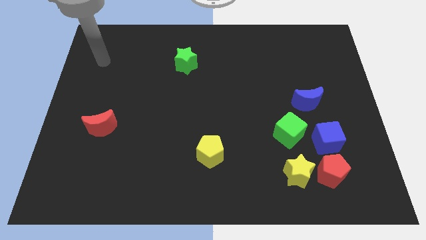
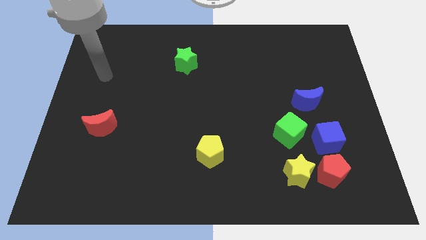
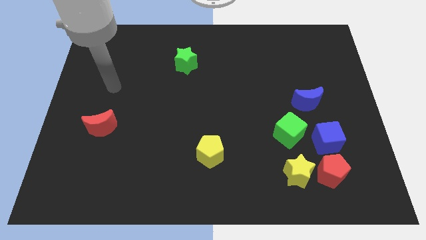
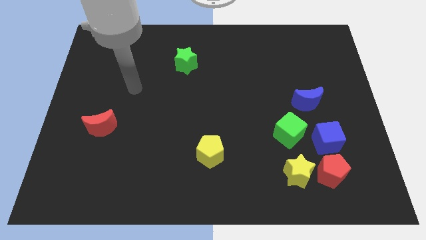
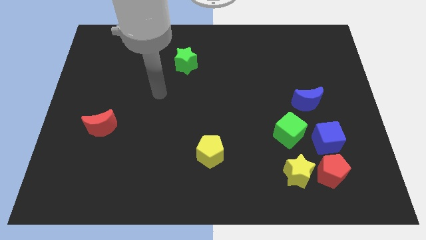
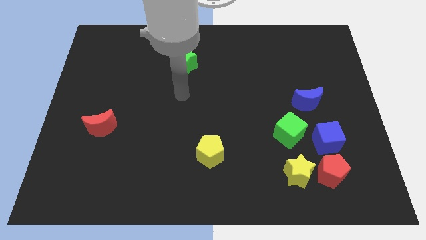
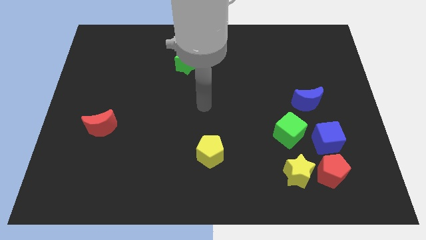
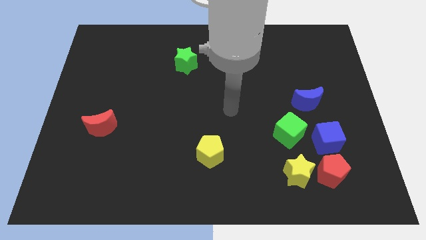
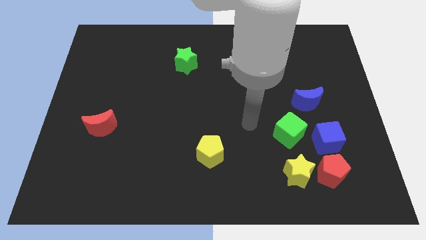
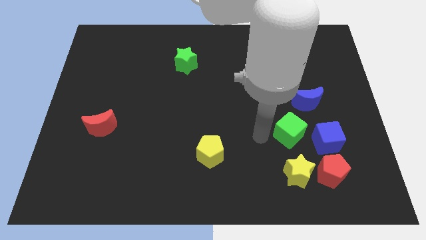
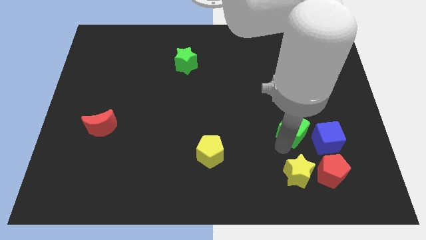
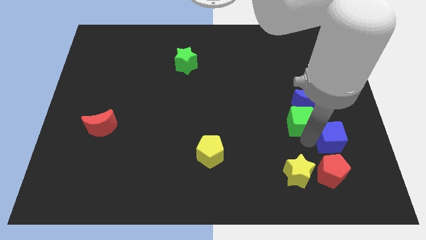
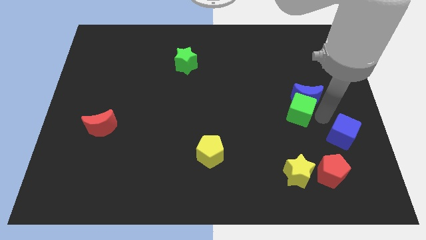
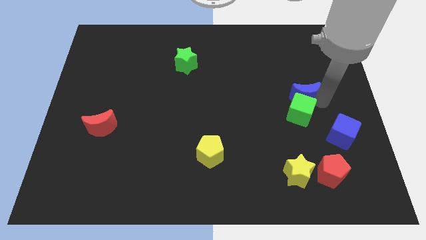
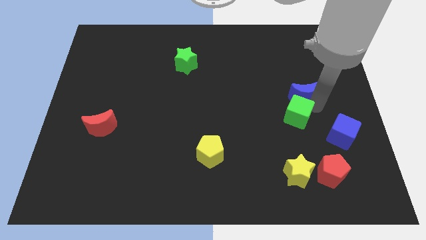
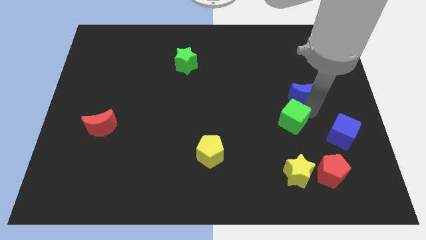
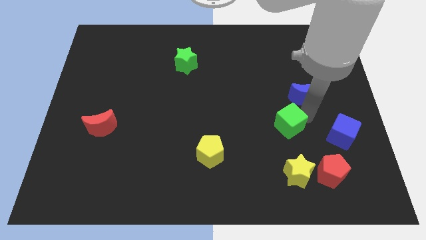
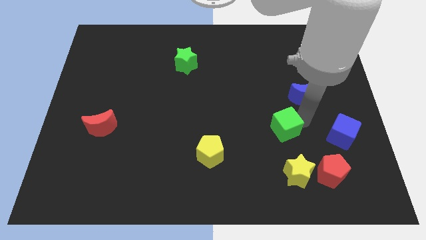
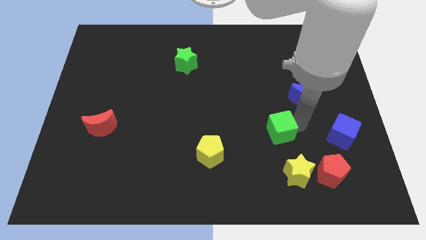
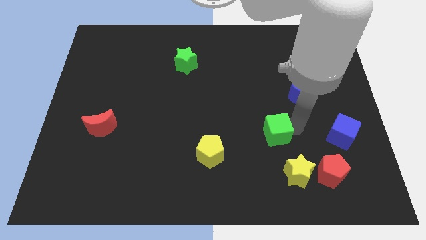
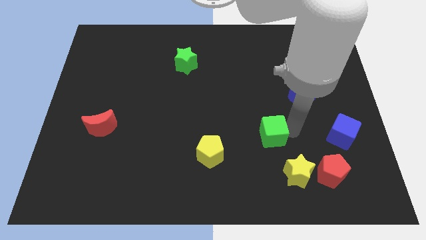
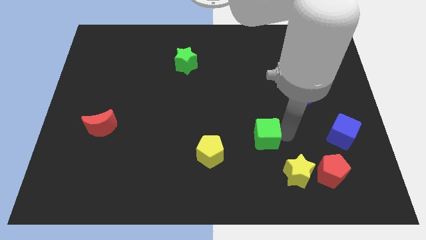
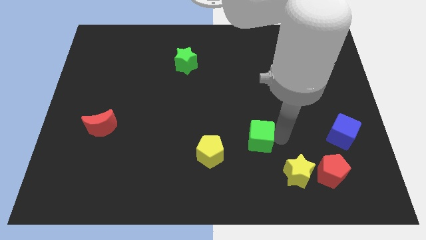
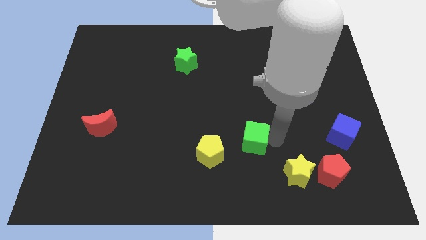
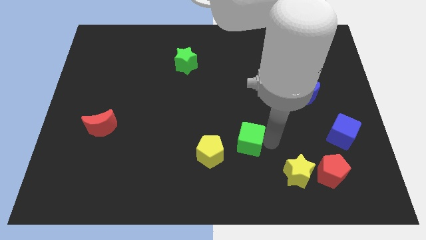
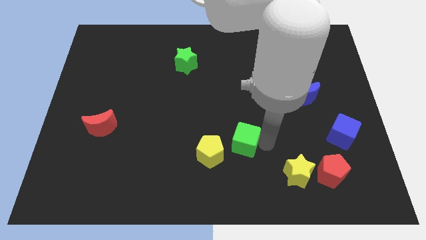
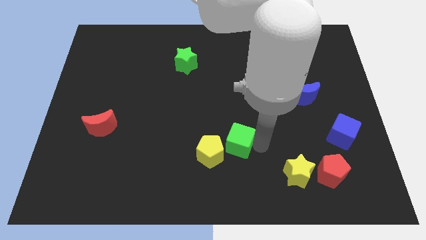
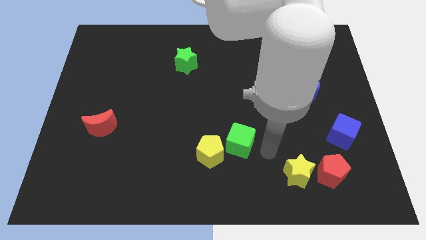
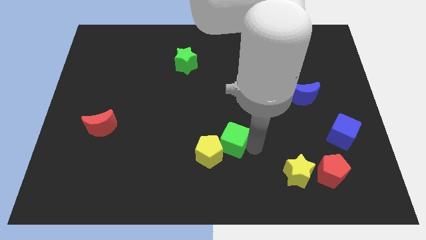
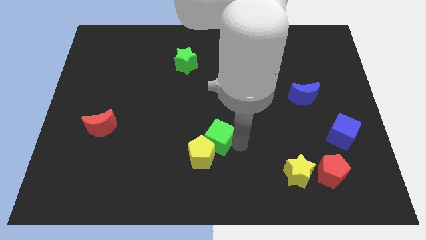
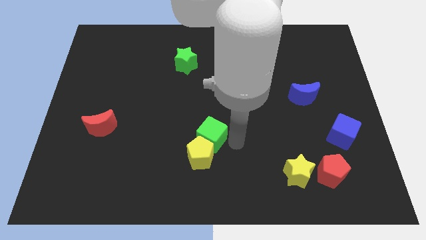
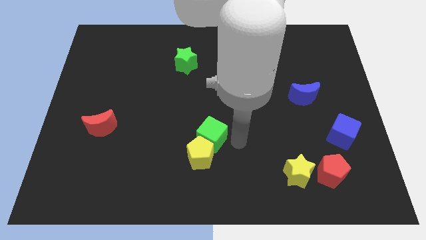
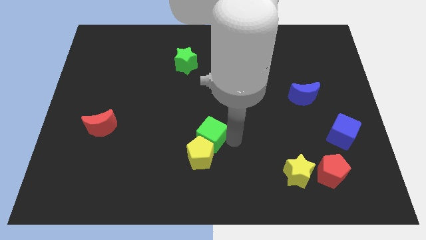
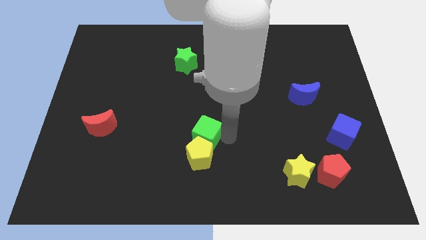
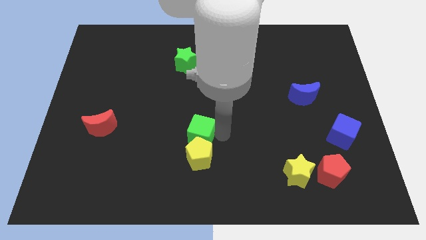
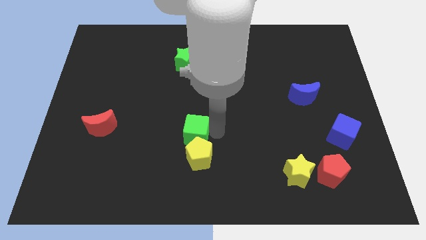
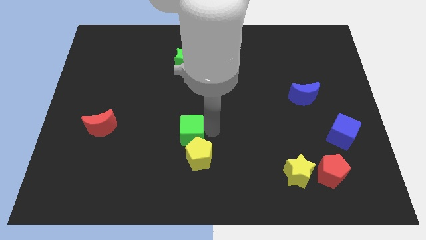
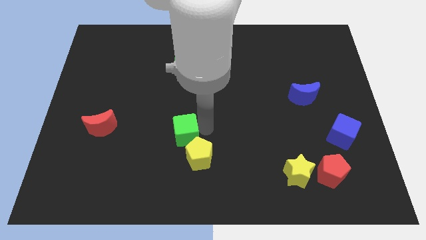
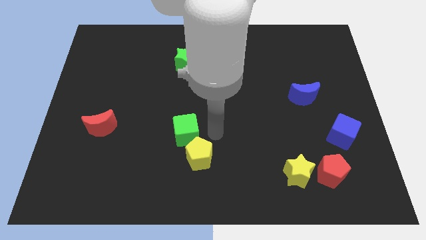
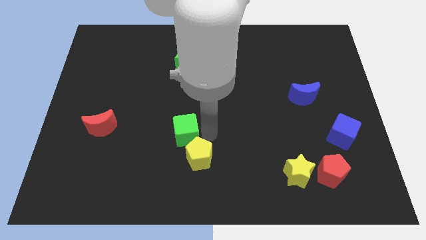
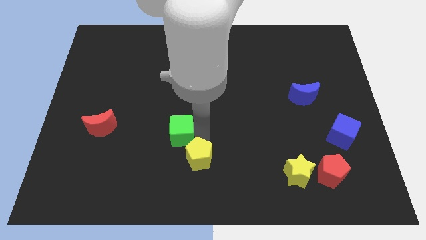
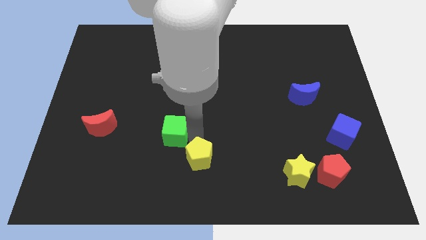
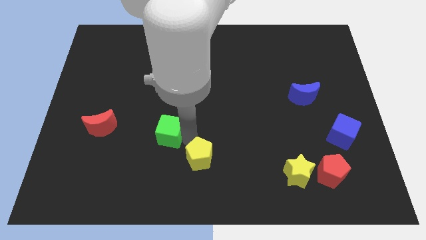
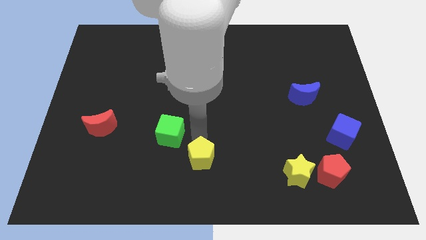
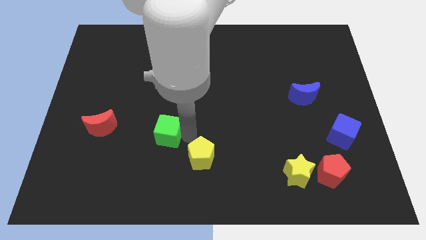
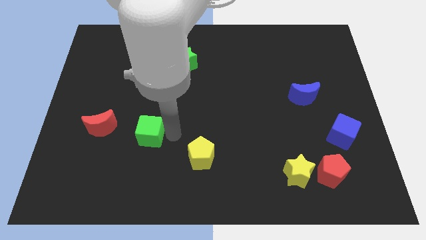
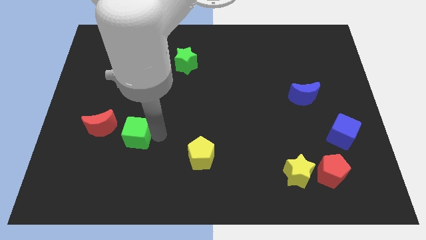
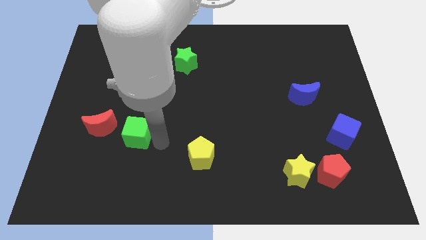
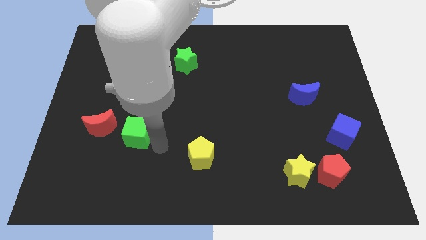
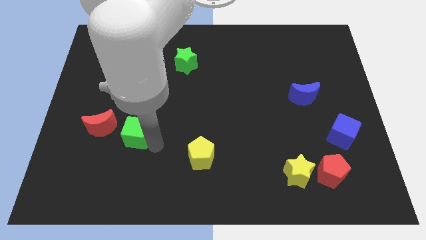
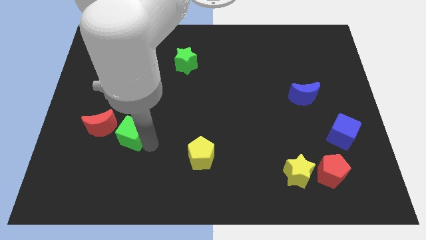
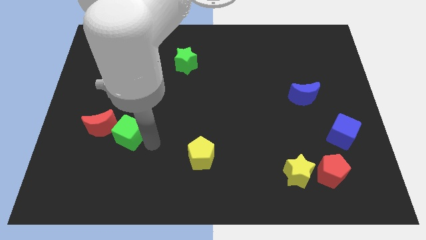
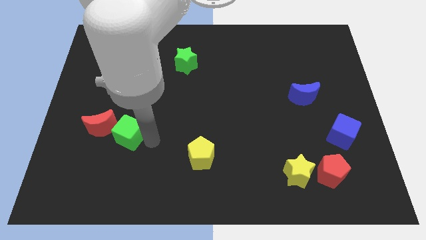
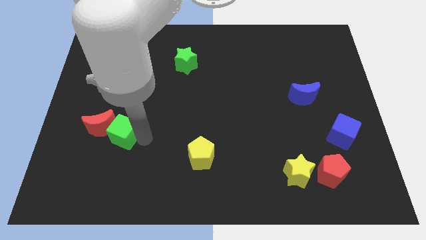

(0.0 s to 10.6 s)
move the green cube next to the red moon

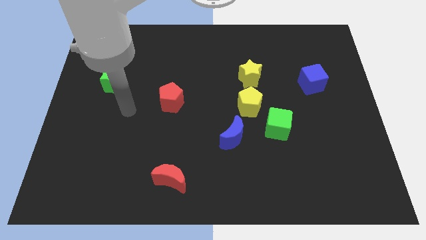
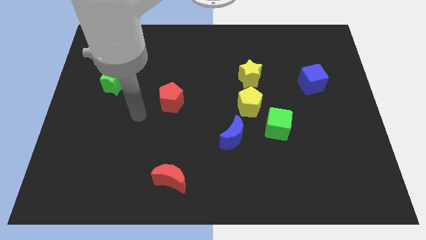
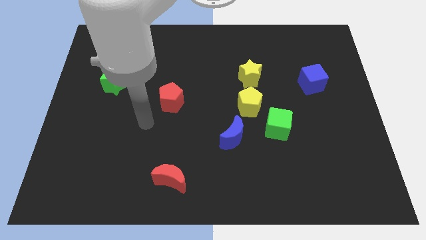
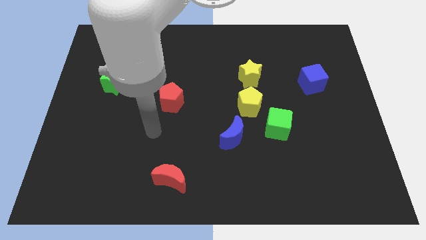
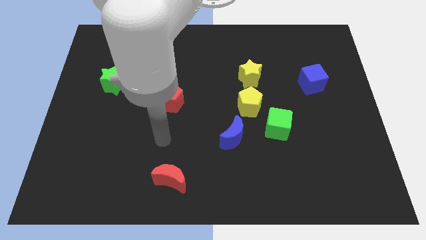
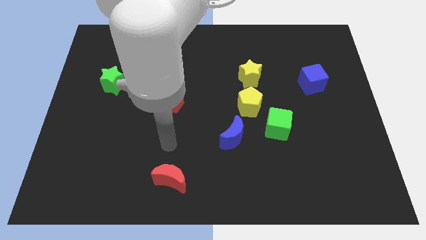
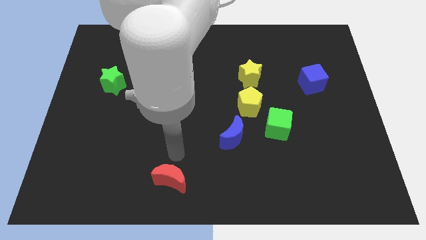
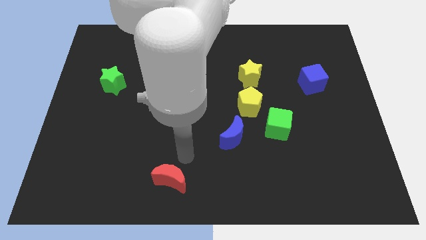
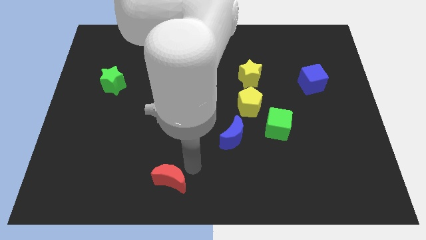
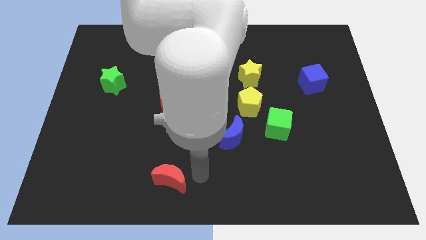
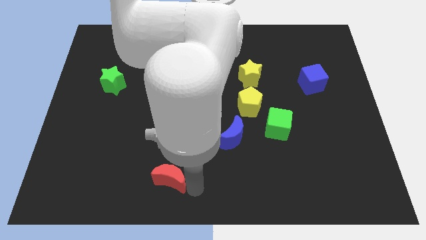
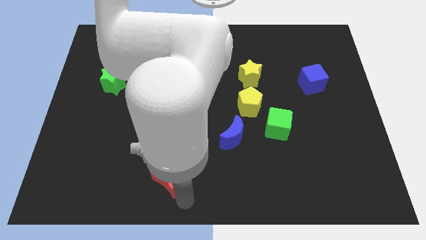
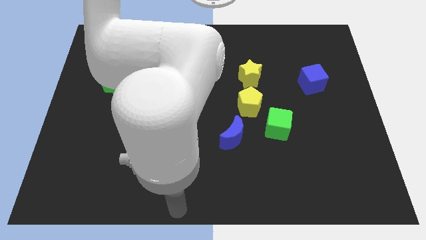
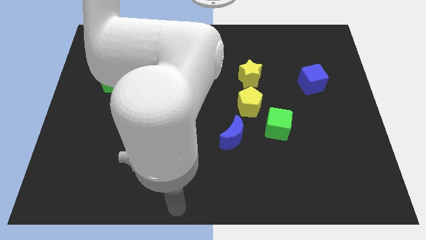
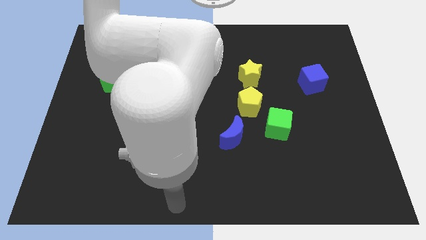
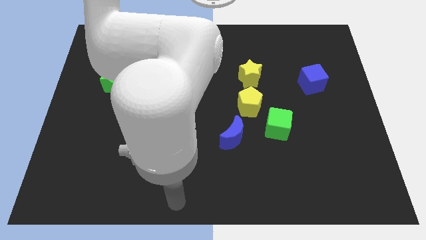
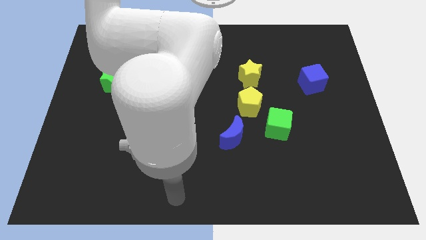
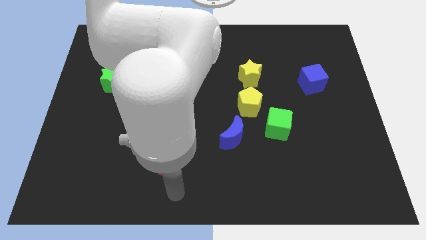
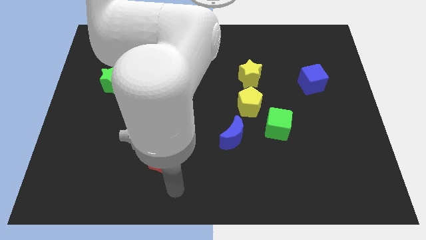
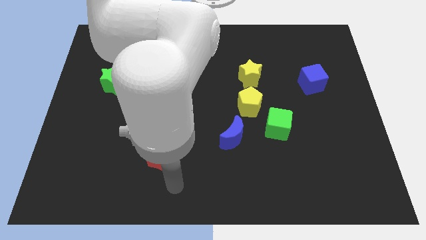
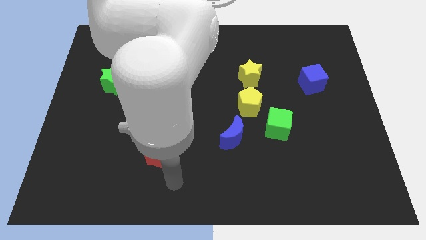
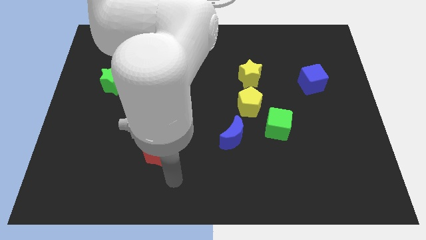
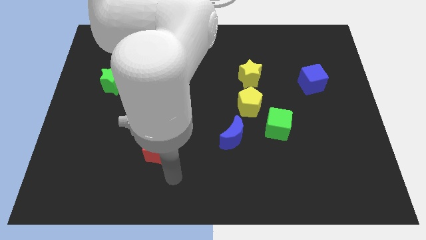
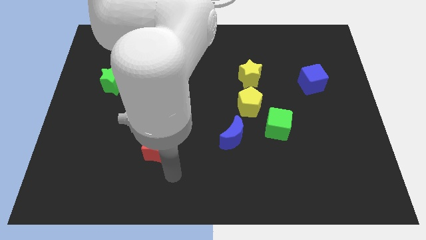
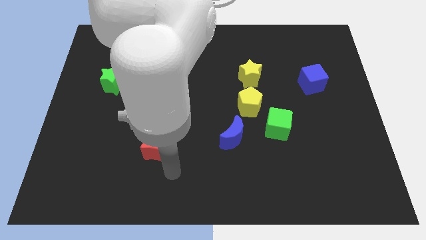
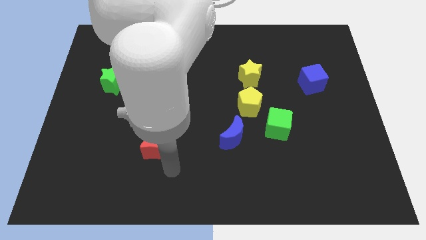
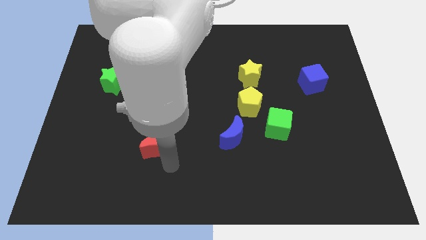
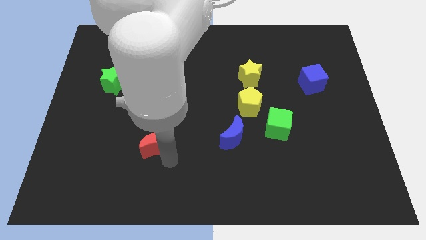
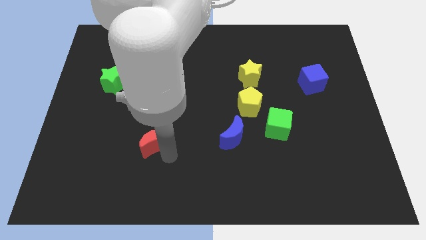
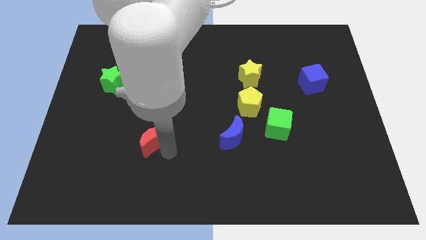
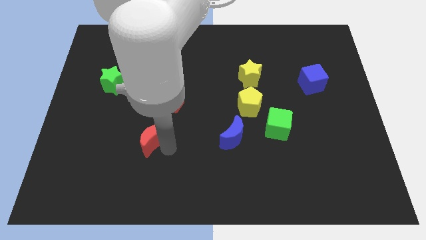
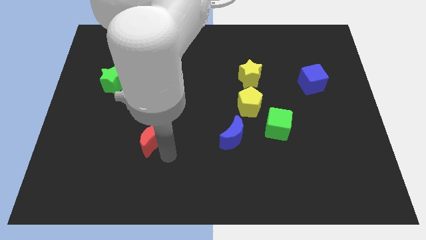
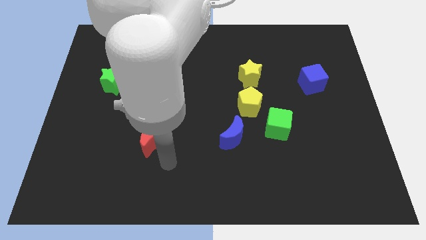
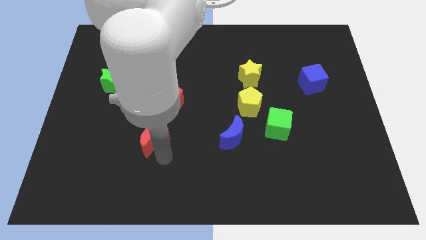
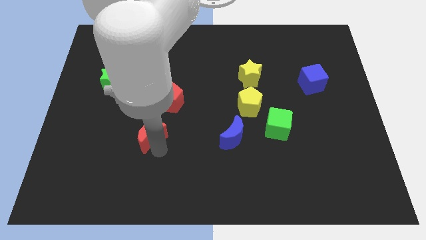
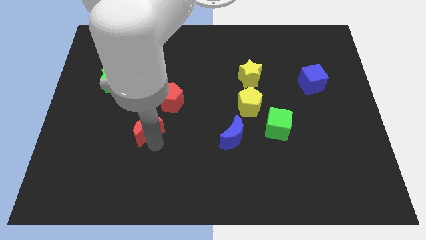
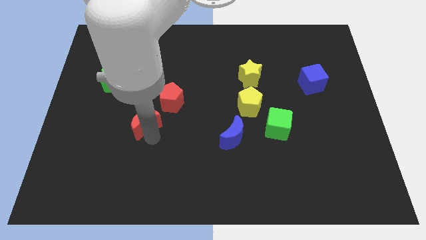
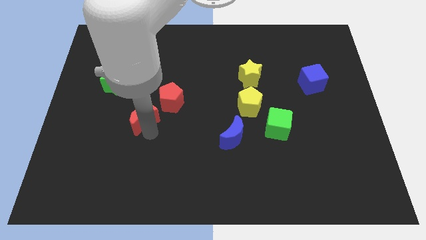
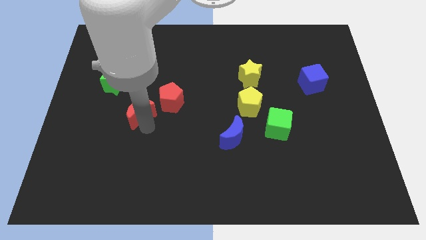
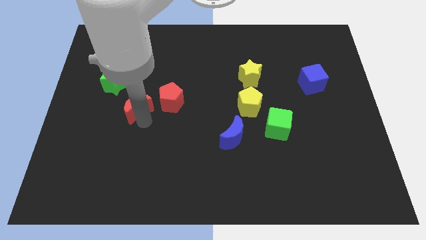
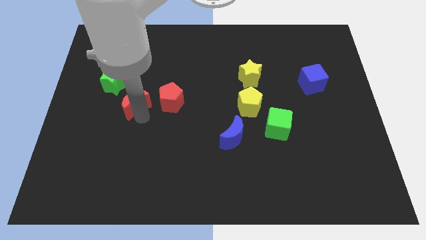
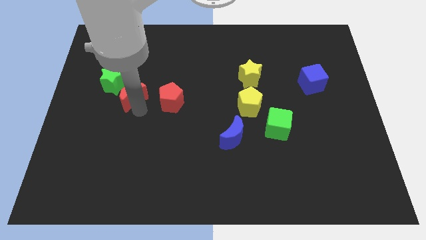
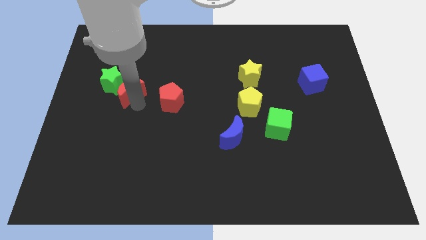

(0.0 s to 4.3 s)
slide the red moon to the green star
